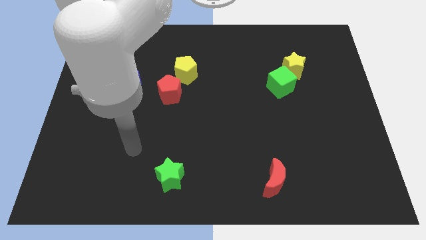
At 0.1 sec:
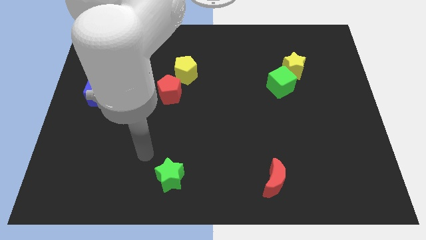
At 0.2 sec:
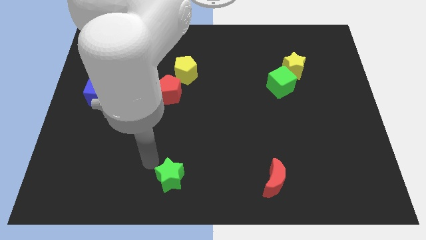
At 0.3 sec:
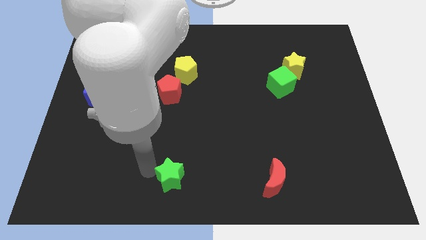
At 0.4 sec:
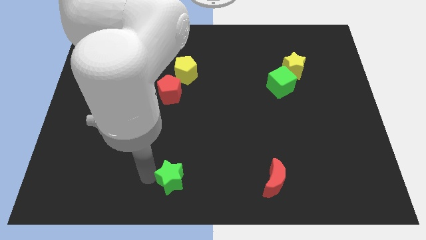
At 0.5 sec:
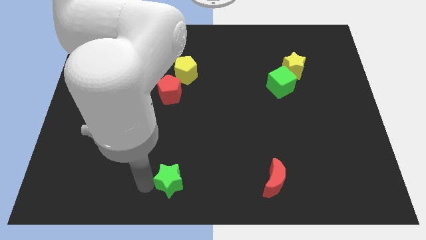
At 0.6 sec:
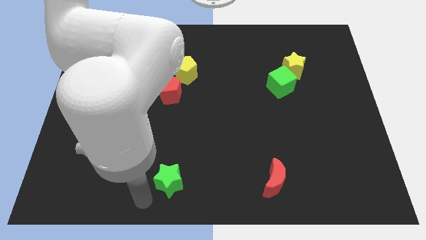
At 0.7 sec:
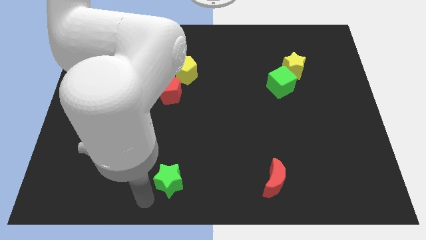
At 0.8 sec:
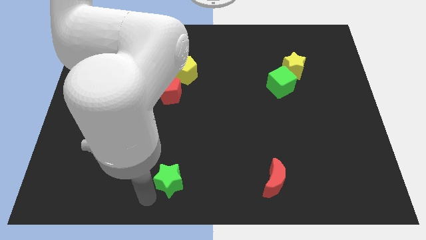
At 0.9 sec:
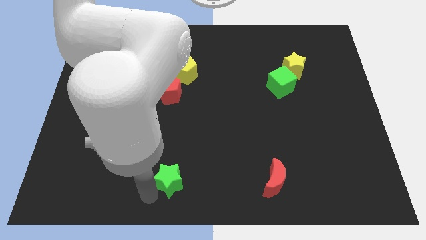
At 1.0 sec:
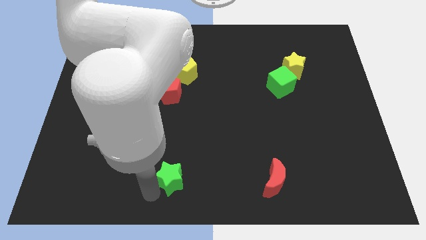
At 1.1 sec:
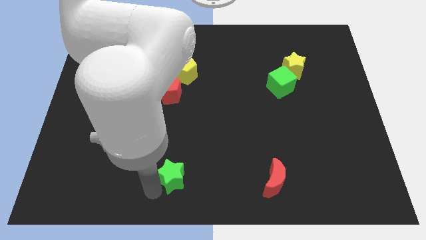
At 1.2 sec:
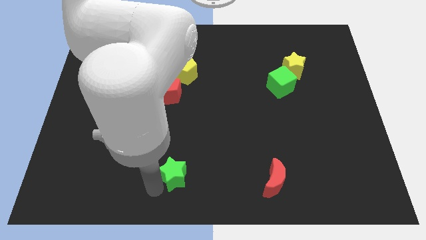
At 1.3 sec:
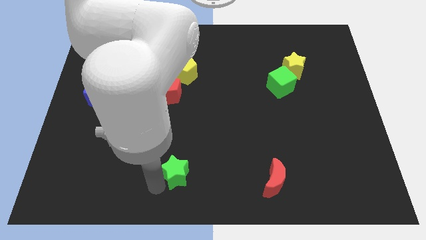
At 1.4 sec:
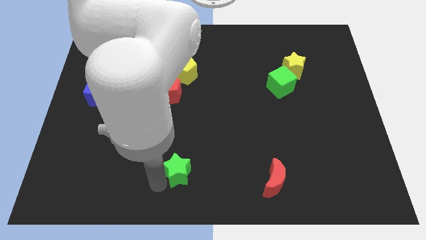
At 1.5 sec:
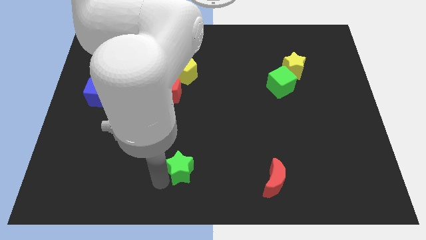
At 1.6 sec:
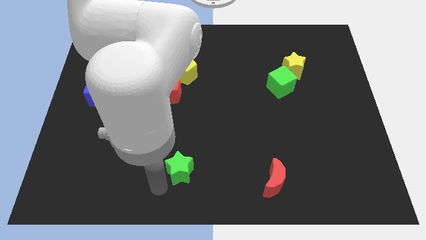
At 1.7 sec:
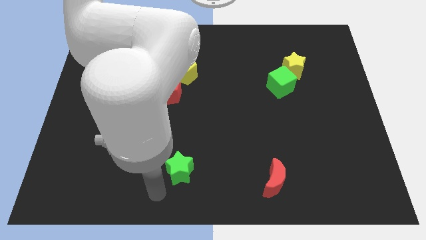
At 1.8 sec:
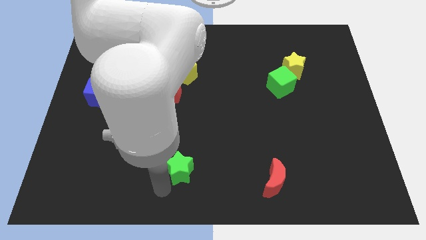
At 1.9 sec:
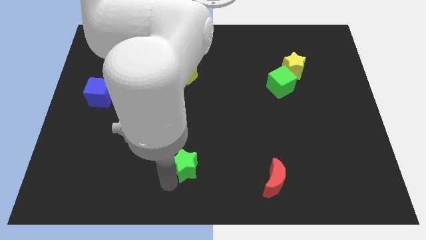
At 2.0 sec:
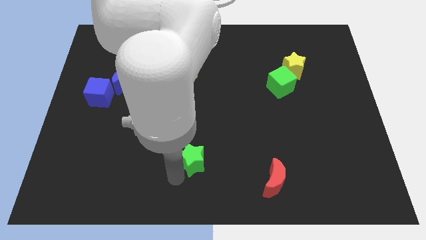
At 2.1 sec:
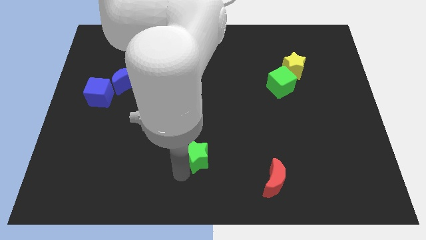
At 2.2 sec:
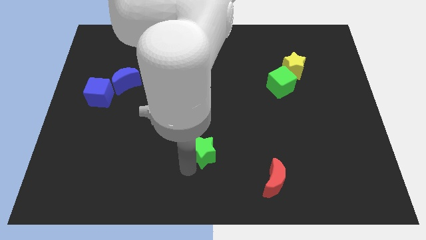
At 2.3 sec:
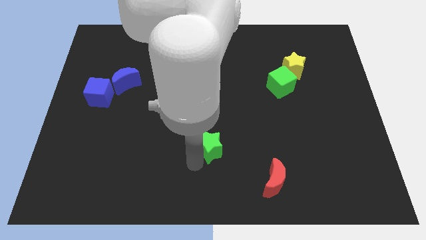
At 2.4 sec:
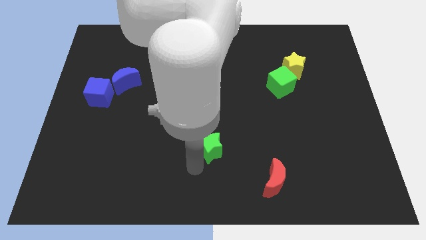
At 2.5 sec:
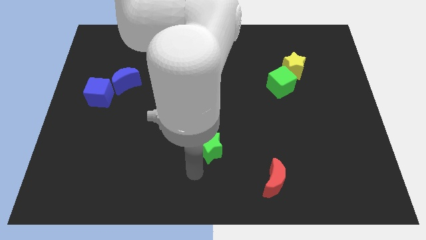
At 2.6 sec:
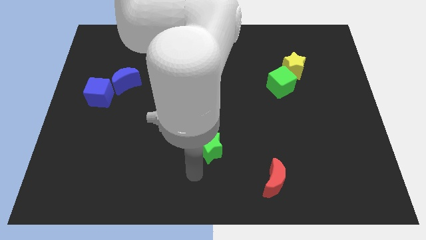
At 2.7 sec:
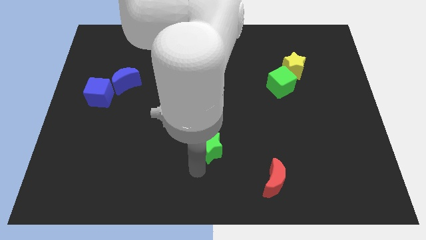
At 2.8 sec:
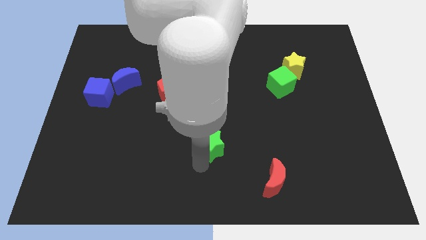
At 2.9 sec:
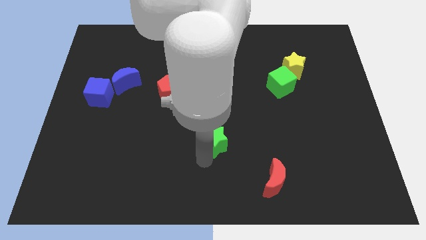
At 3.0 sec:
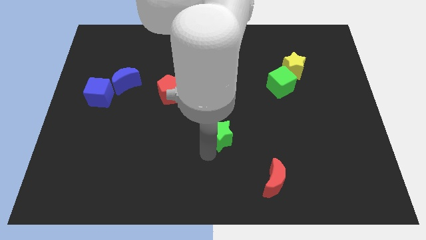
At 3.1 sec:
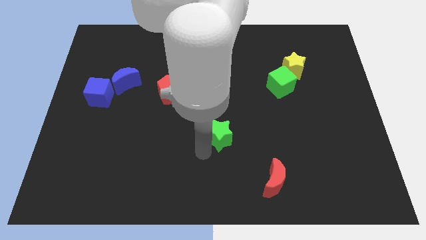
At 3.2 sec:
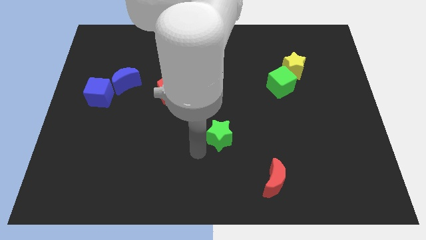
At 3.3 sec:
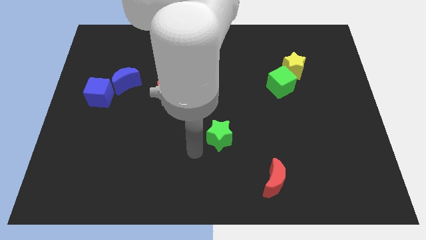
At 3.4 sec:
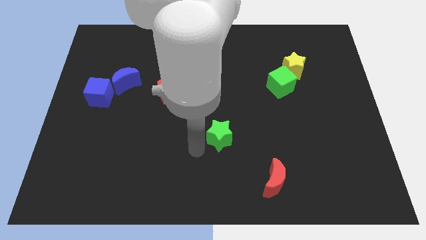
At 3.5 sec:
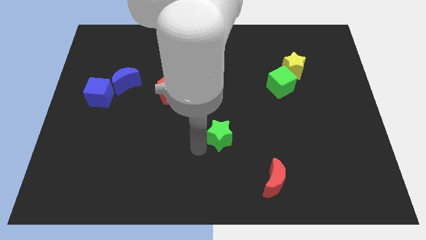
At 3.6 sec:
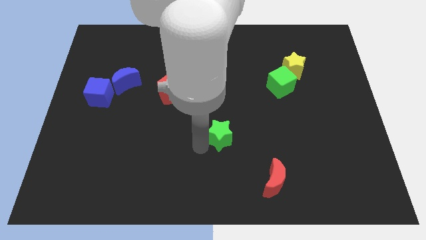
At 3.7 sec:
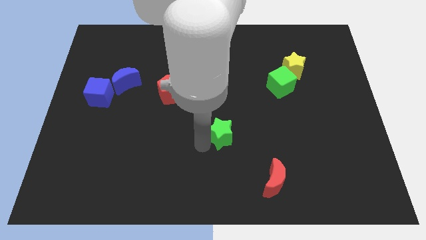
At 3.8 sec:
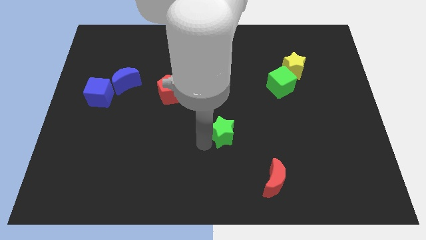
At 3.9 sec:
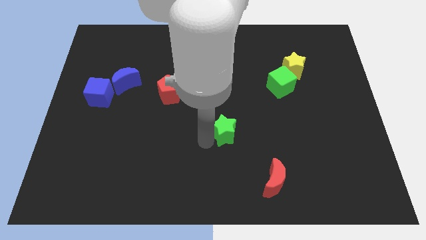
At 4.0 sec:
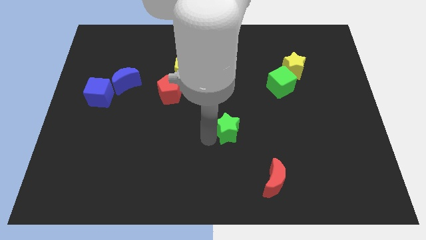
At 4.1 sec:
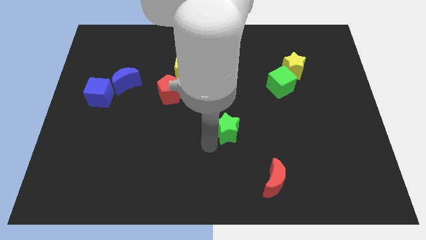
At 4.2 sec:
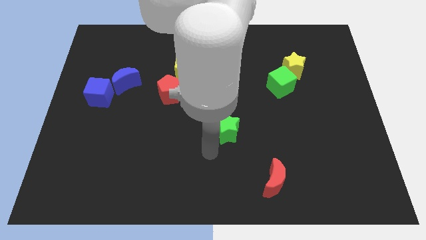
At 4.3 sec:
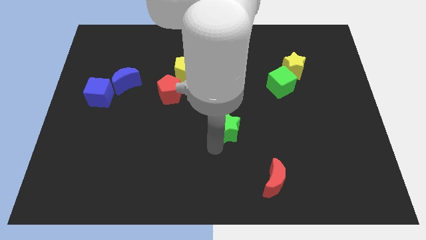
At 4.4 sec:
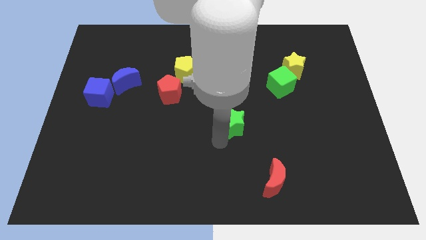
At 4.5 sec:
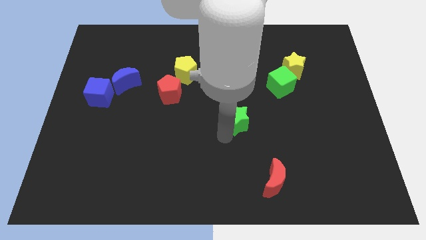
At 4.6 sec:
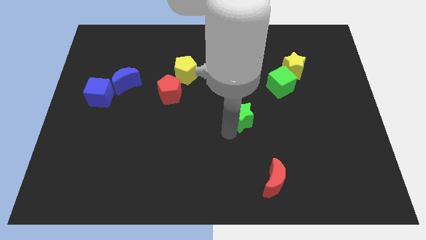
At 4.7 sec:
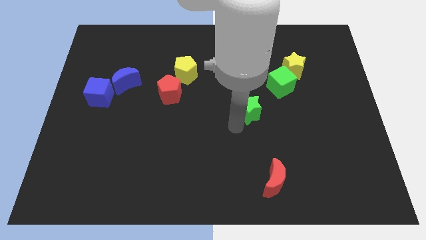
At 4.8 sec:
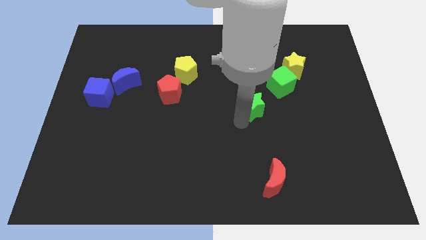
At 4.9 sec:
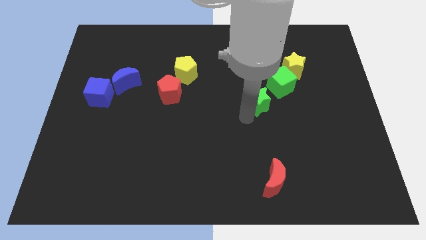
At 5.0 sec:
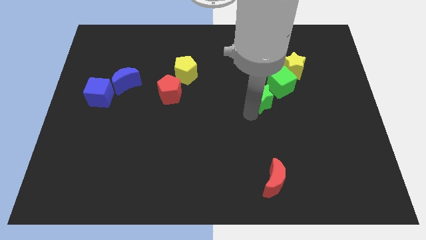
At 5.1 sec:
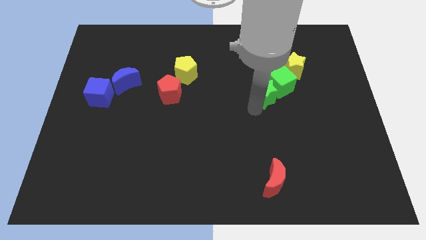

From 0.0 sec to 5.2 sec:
slide the green star to the bottom left of the yellow star

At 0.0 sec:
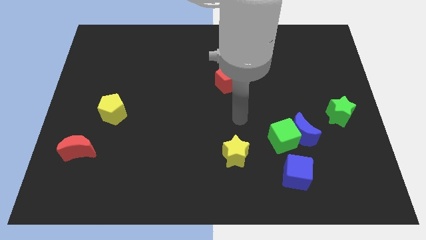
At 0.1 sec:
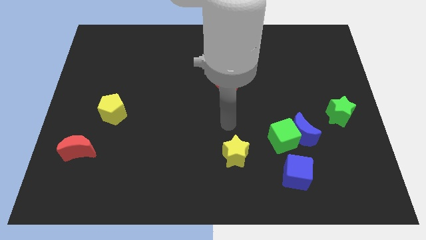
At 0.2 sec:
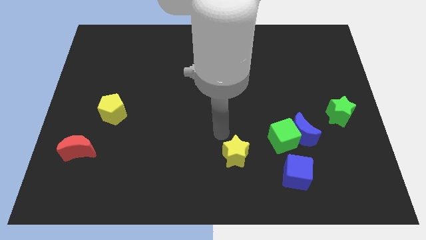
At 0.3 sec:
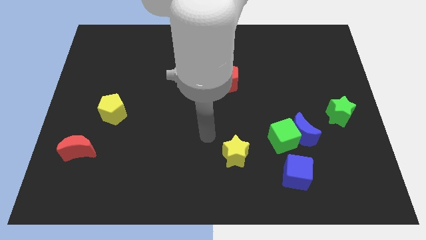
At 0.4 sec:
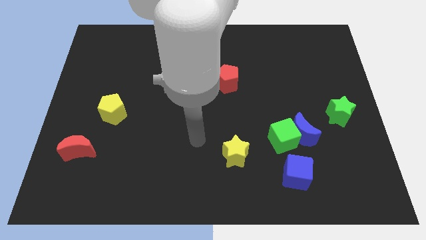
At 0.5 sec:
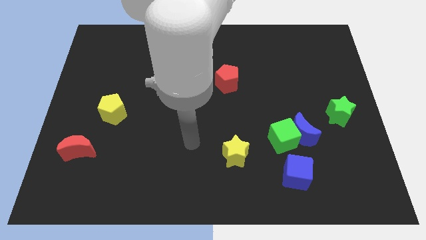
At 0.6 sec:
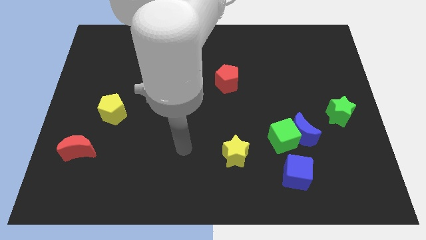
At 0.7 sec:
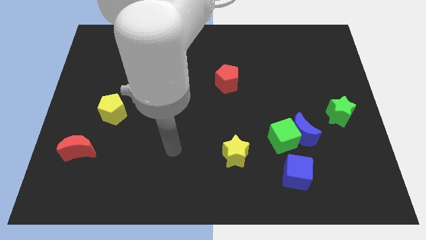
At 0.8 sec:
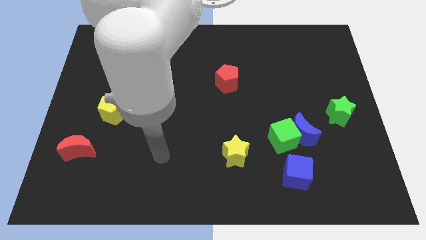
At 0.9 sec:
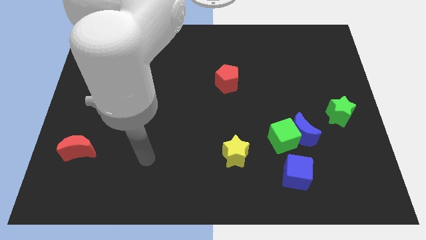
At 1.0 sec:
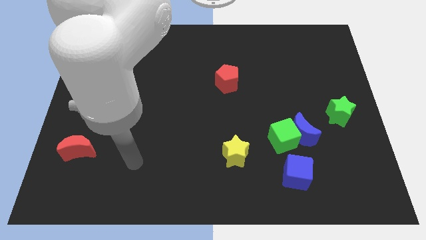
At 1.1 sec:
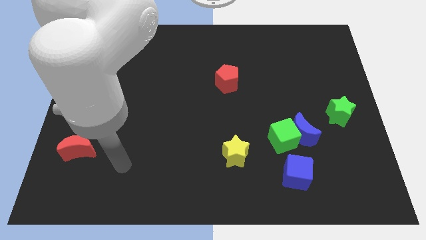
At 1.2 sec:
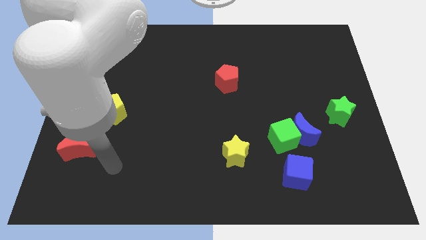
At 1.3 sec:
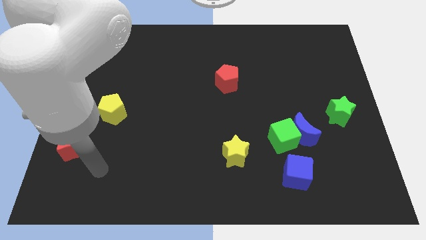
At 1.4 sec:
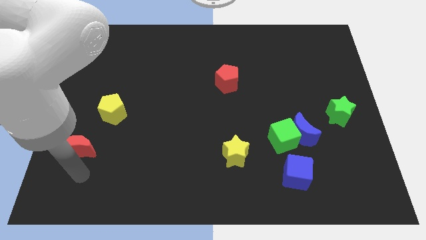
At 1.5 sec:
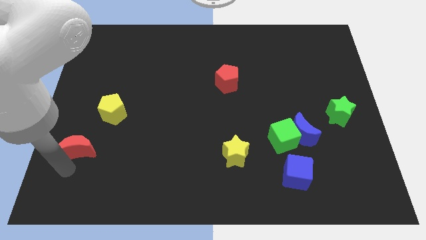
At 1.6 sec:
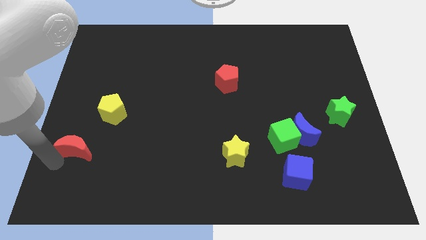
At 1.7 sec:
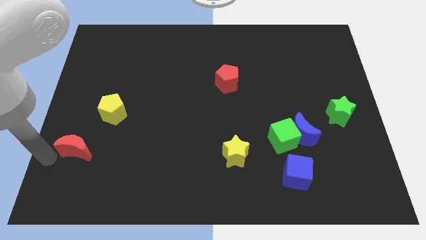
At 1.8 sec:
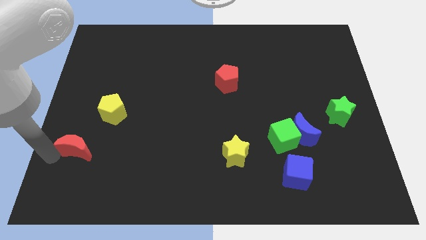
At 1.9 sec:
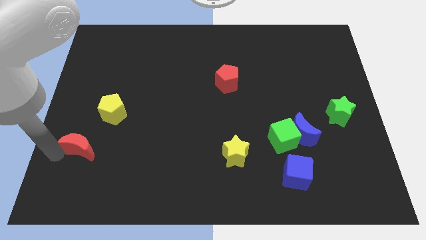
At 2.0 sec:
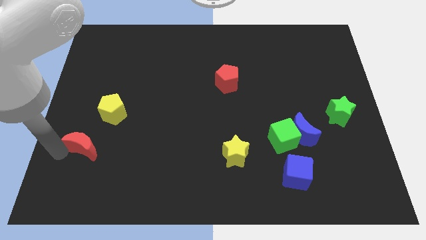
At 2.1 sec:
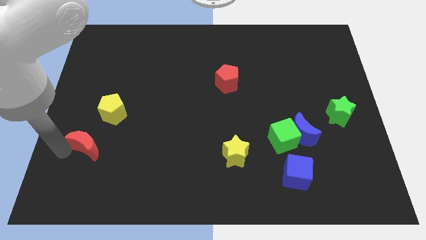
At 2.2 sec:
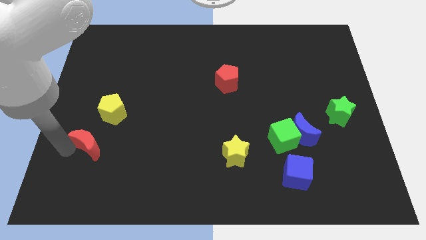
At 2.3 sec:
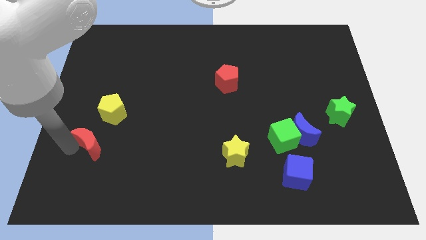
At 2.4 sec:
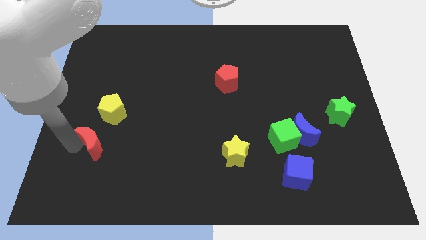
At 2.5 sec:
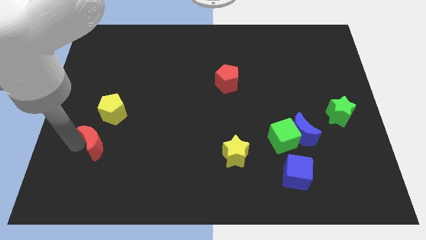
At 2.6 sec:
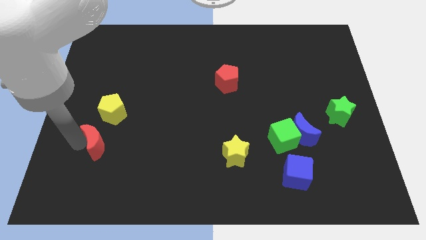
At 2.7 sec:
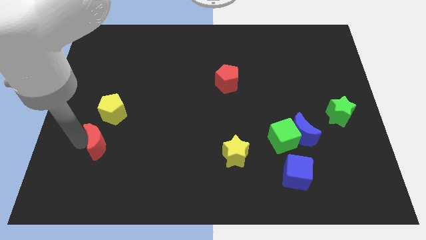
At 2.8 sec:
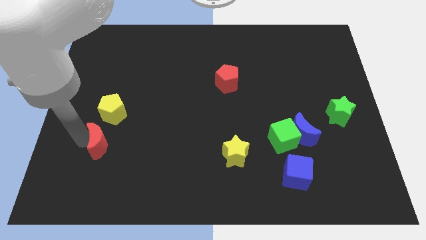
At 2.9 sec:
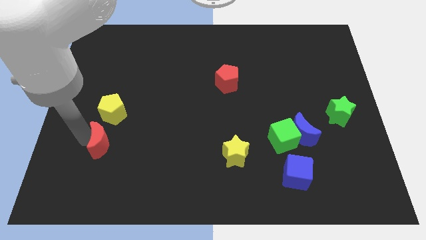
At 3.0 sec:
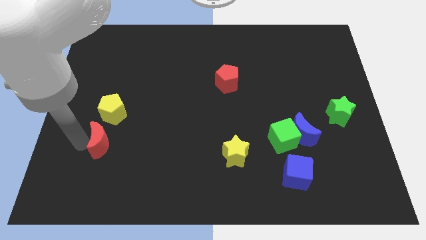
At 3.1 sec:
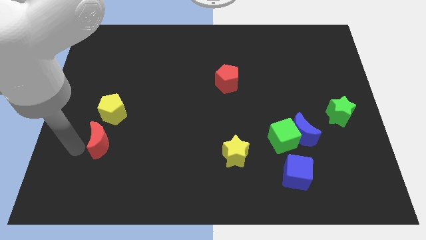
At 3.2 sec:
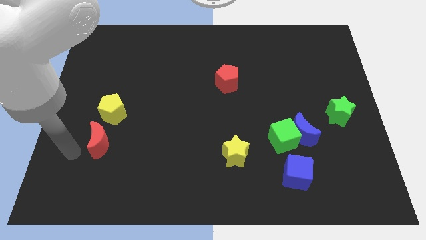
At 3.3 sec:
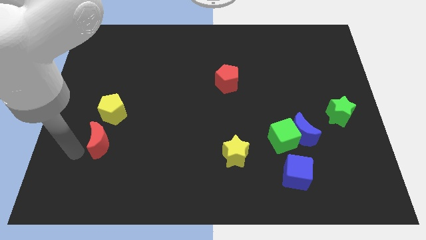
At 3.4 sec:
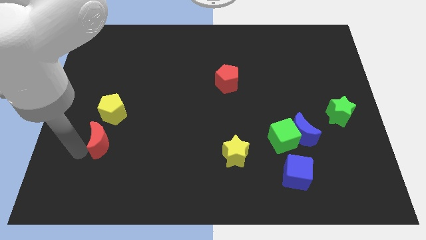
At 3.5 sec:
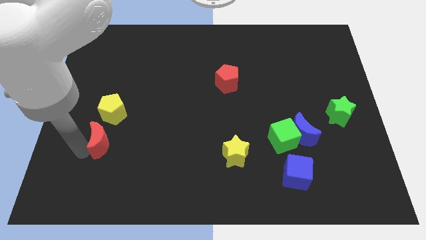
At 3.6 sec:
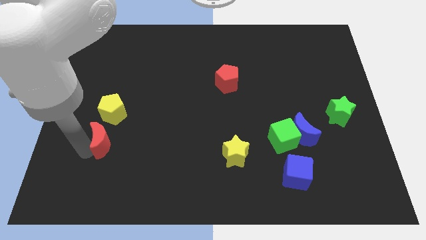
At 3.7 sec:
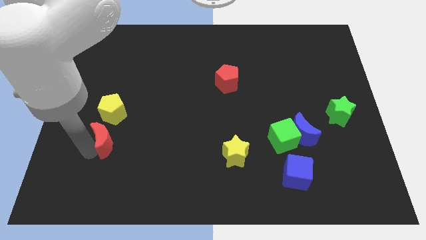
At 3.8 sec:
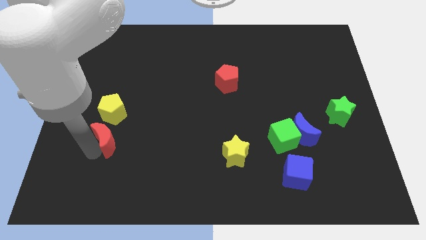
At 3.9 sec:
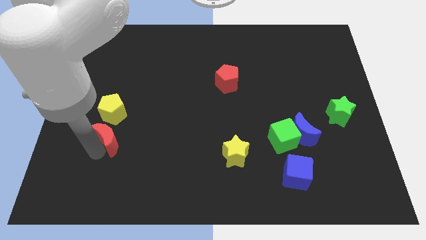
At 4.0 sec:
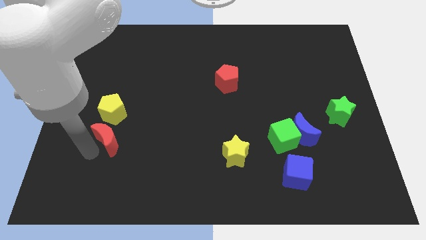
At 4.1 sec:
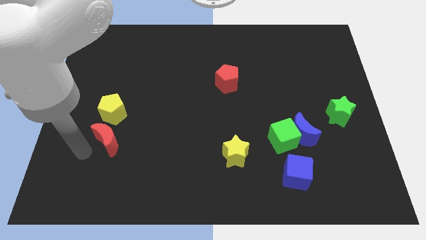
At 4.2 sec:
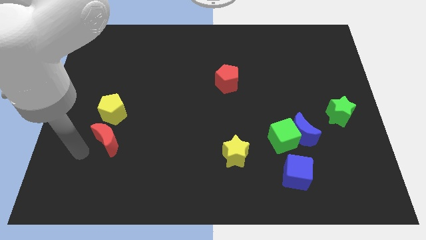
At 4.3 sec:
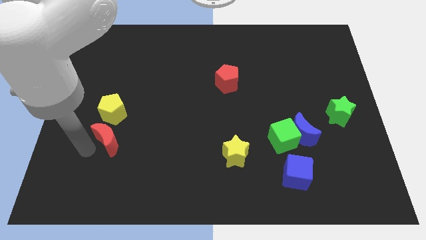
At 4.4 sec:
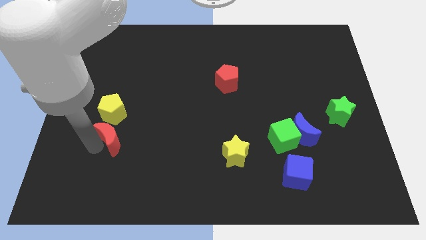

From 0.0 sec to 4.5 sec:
move the red moon to the bottom right side of the yellow pentagon
